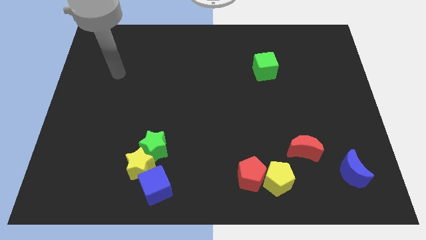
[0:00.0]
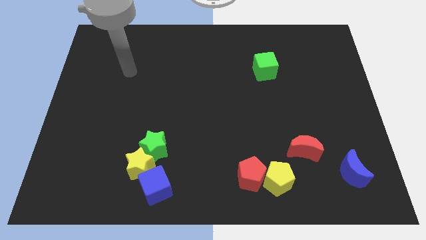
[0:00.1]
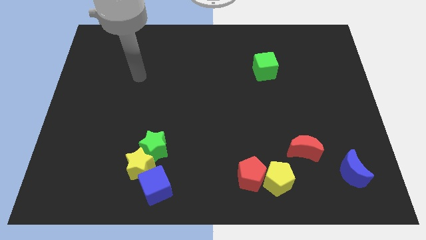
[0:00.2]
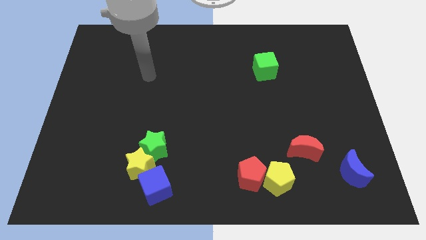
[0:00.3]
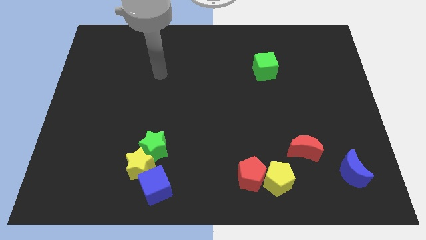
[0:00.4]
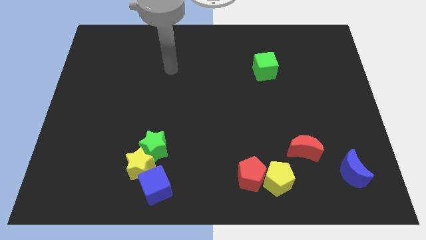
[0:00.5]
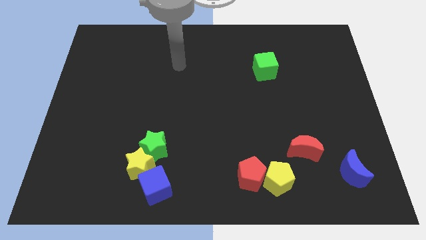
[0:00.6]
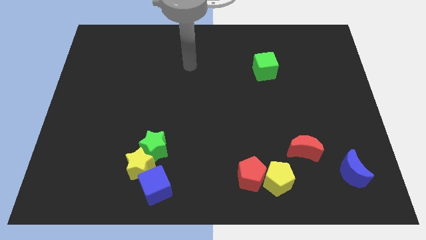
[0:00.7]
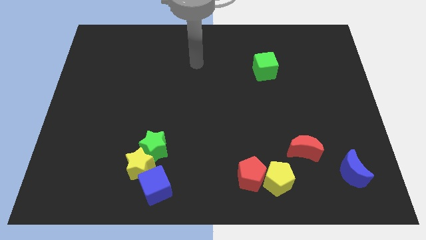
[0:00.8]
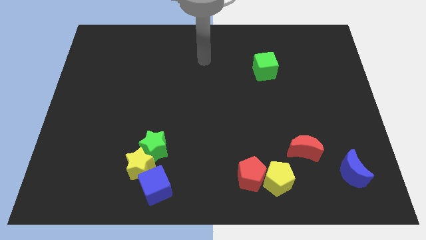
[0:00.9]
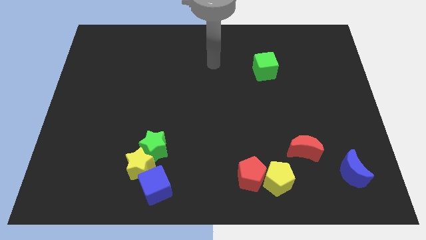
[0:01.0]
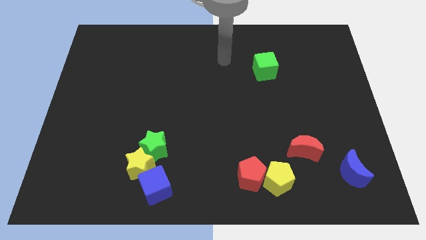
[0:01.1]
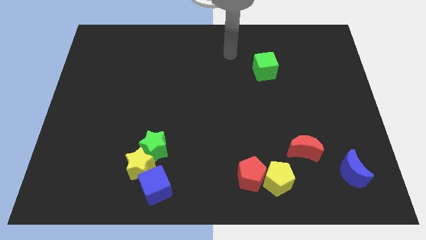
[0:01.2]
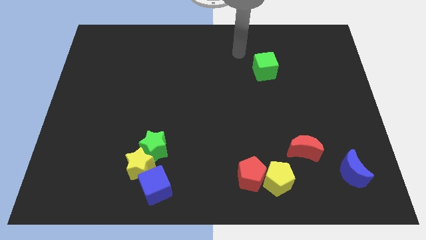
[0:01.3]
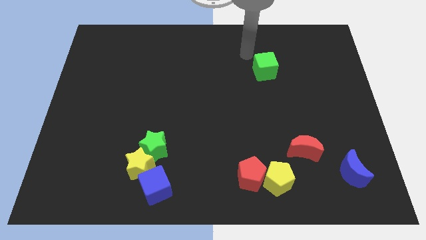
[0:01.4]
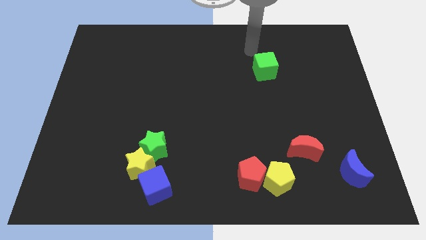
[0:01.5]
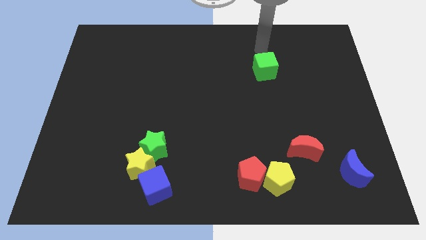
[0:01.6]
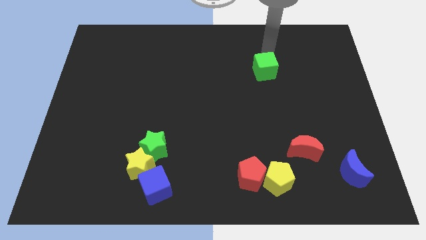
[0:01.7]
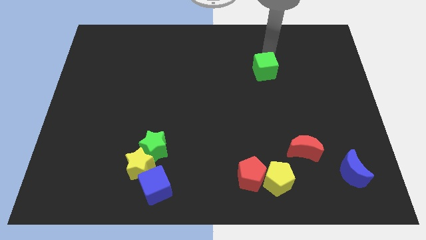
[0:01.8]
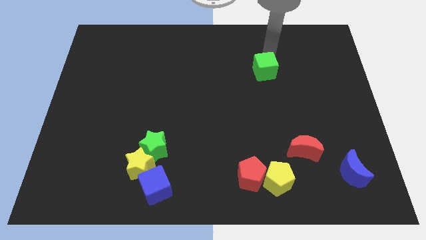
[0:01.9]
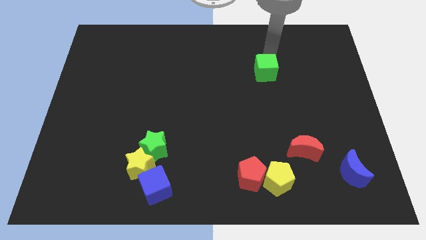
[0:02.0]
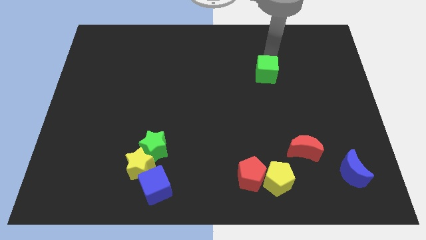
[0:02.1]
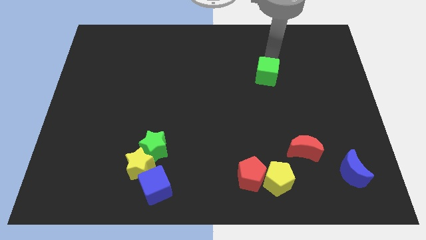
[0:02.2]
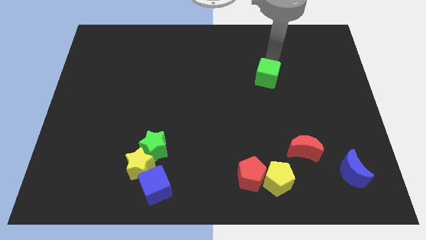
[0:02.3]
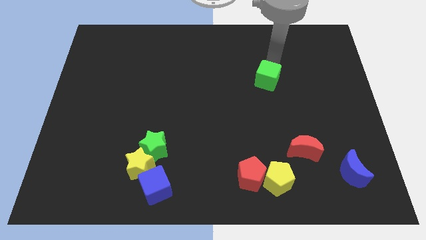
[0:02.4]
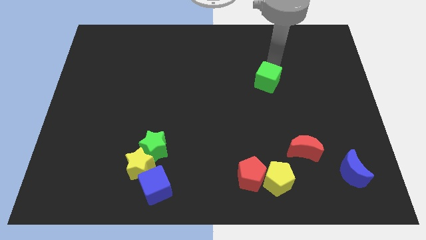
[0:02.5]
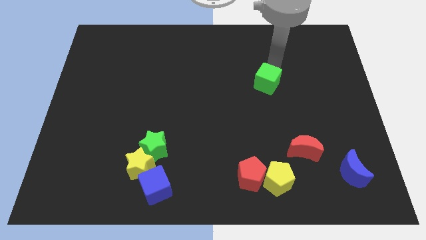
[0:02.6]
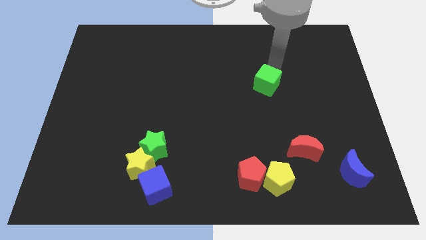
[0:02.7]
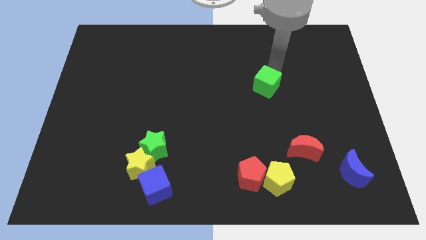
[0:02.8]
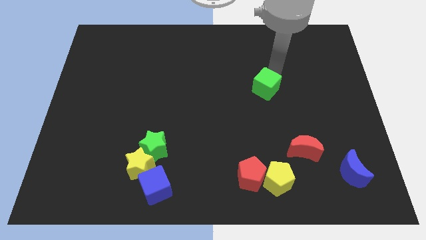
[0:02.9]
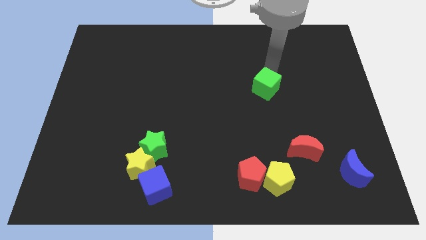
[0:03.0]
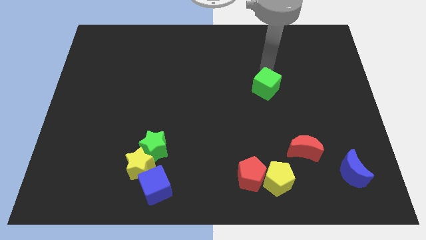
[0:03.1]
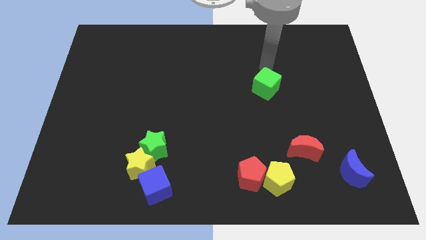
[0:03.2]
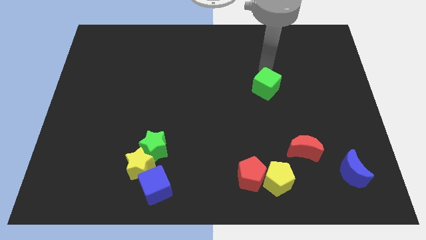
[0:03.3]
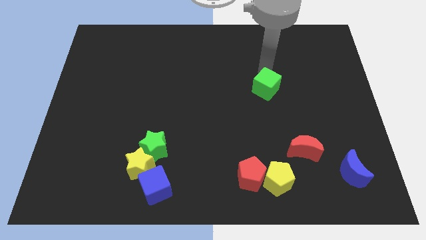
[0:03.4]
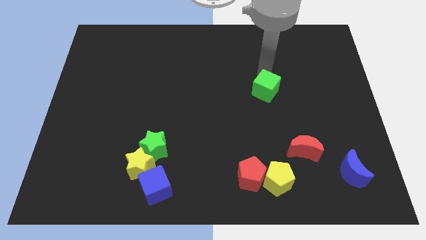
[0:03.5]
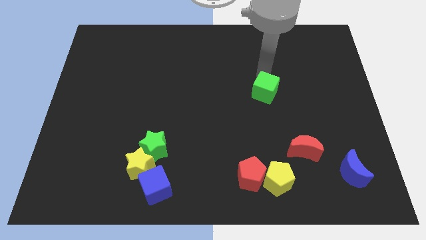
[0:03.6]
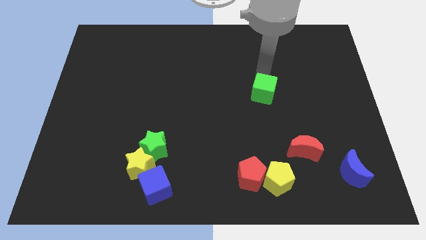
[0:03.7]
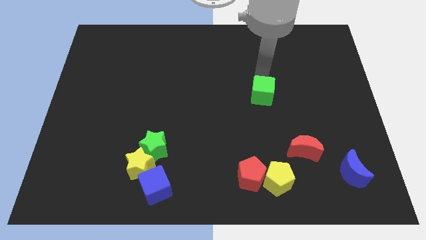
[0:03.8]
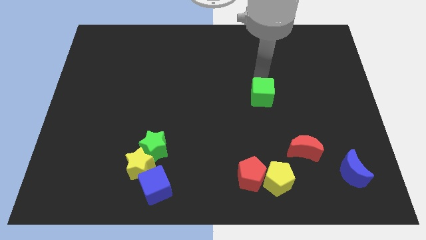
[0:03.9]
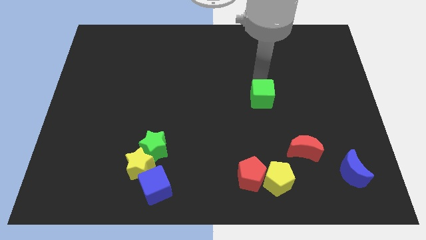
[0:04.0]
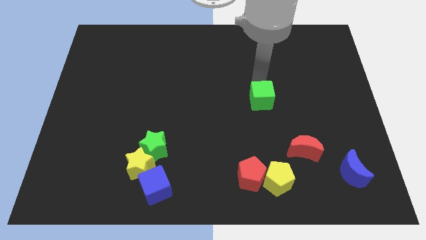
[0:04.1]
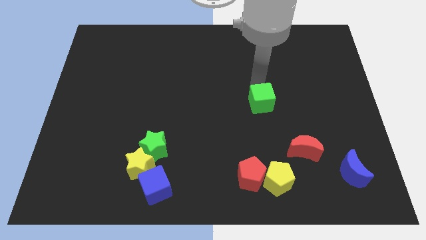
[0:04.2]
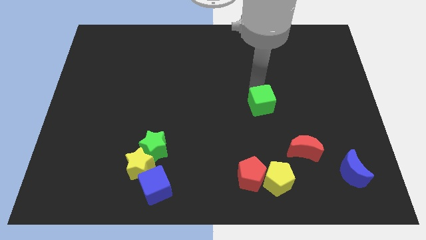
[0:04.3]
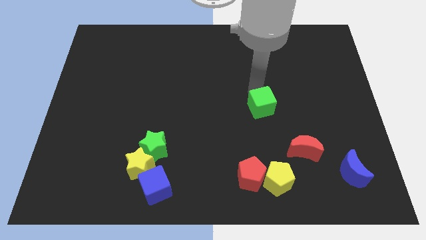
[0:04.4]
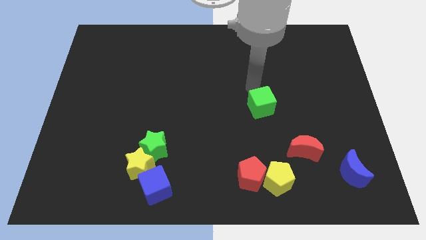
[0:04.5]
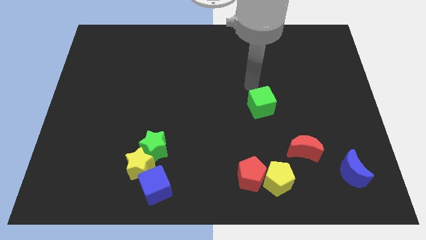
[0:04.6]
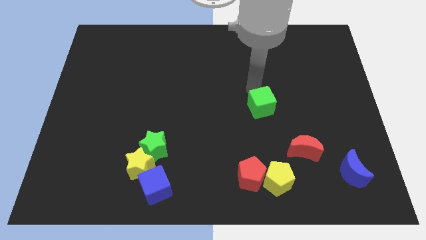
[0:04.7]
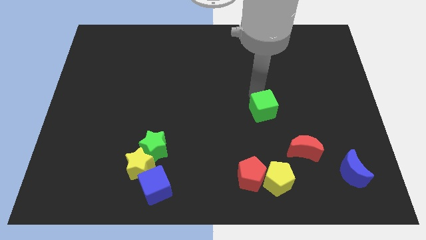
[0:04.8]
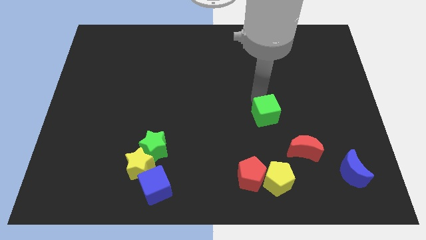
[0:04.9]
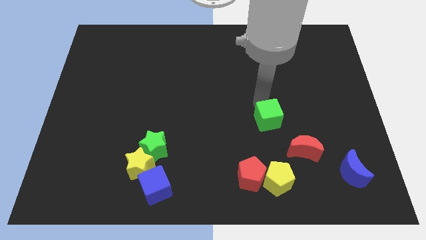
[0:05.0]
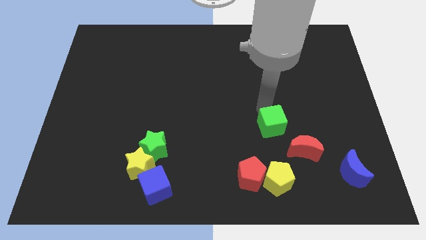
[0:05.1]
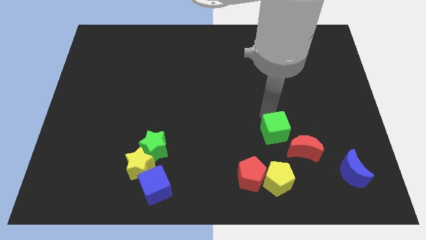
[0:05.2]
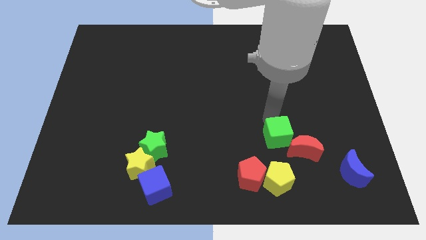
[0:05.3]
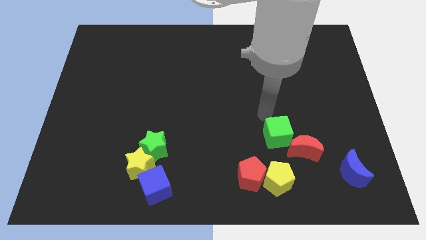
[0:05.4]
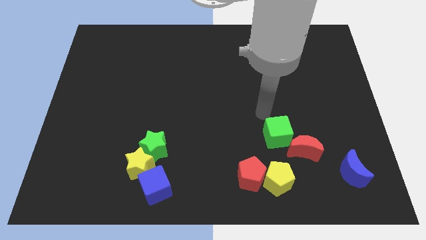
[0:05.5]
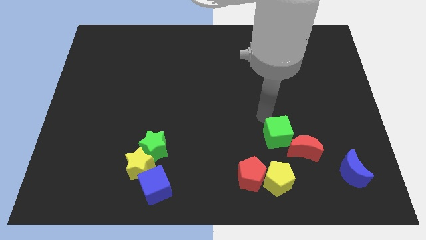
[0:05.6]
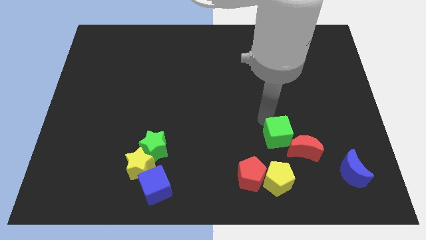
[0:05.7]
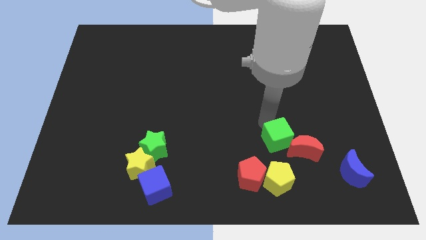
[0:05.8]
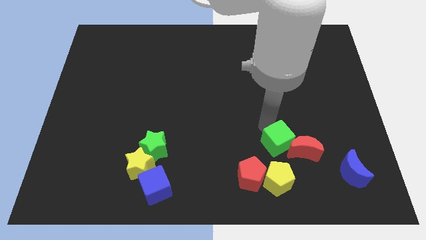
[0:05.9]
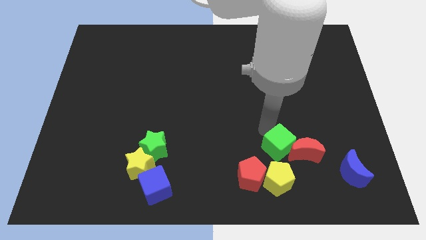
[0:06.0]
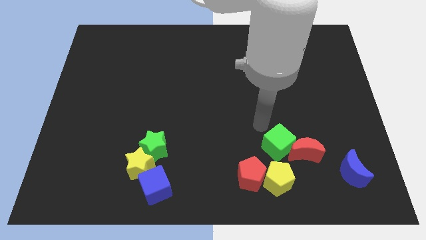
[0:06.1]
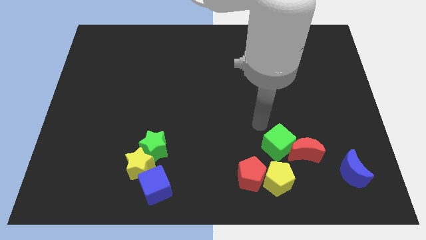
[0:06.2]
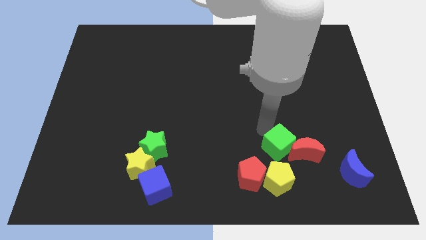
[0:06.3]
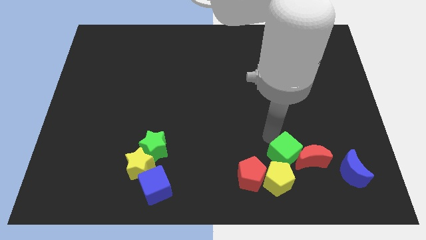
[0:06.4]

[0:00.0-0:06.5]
move the green cube to the left side of the blue moon
